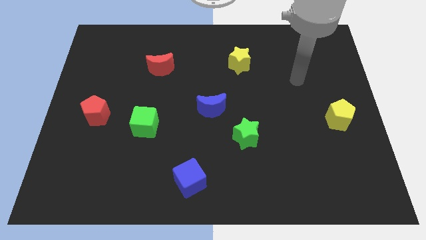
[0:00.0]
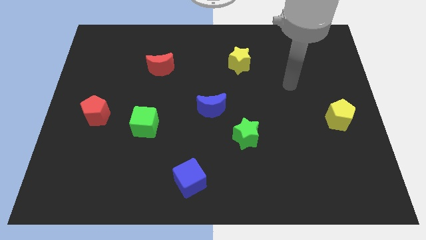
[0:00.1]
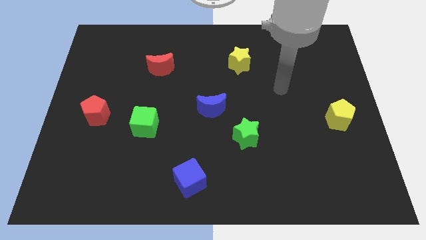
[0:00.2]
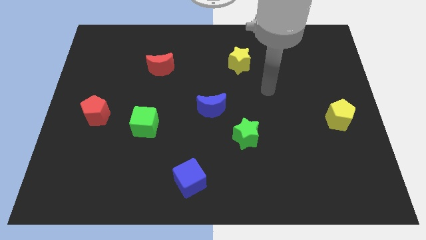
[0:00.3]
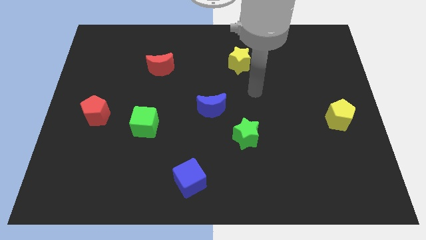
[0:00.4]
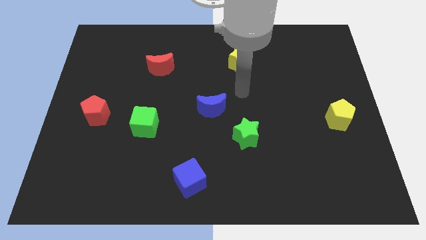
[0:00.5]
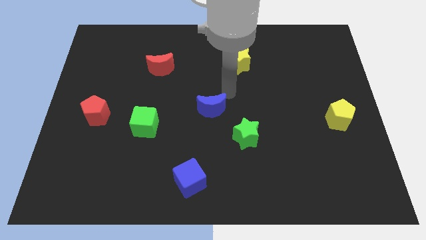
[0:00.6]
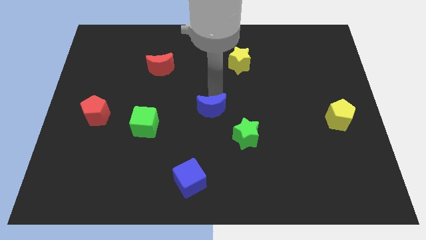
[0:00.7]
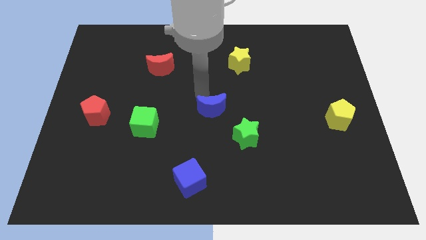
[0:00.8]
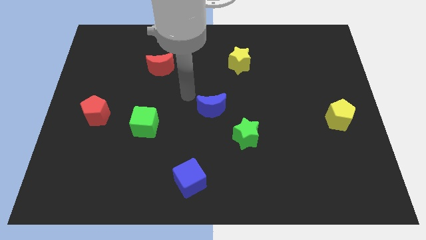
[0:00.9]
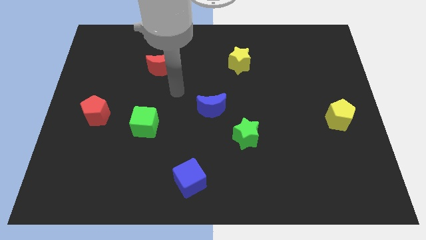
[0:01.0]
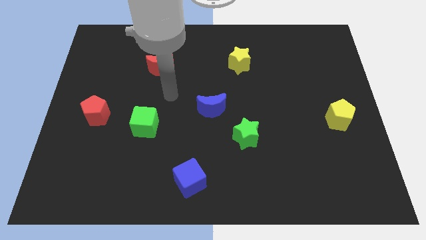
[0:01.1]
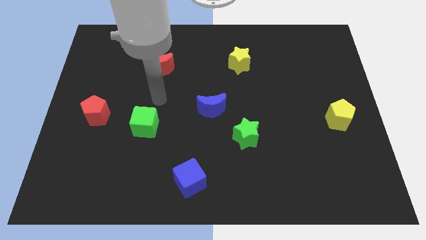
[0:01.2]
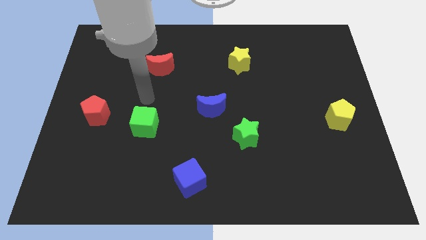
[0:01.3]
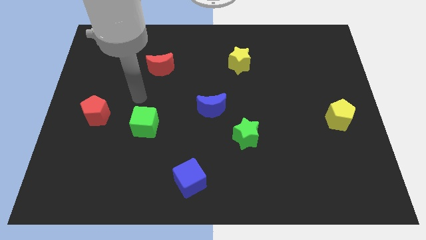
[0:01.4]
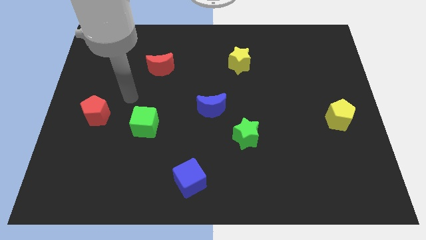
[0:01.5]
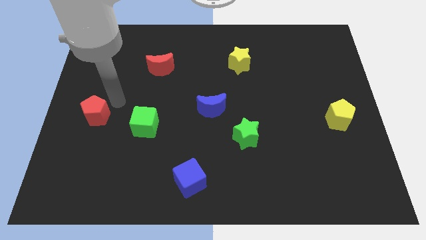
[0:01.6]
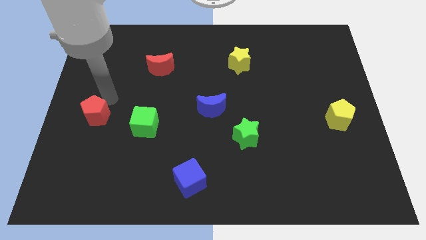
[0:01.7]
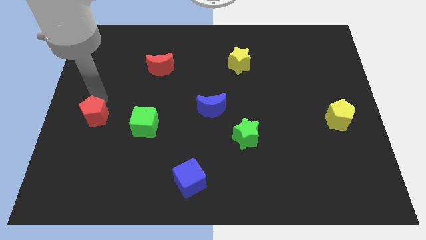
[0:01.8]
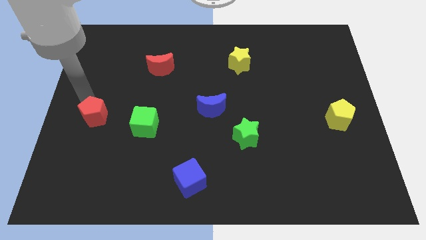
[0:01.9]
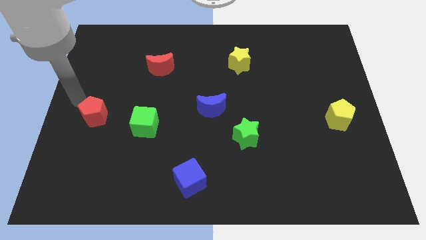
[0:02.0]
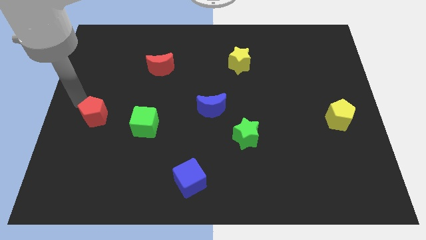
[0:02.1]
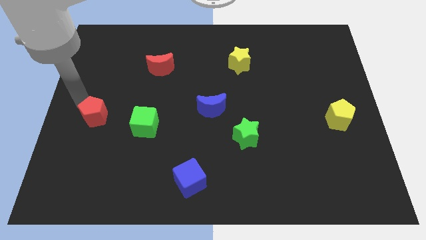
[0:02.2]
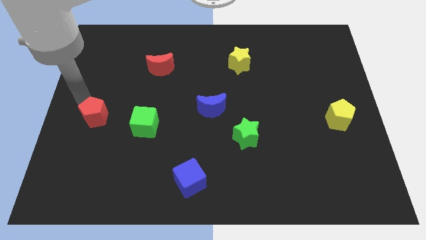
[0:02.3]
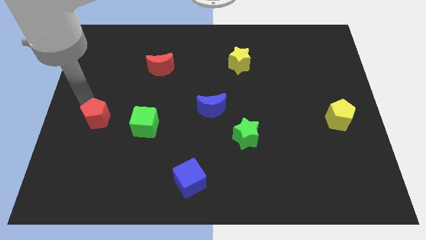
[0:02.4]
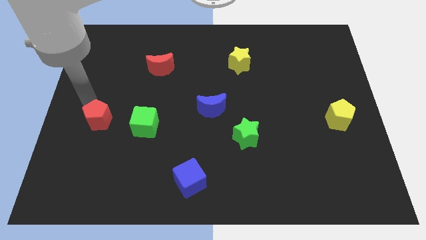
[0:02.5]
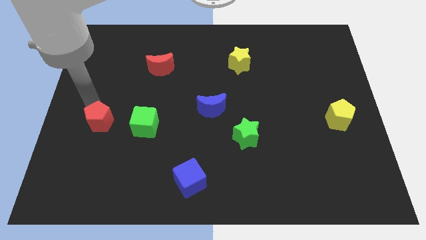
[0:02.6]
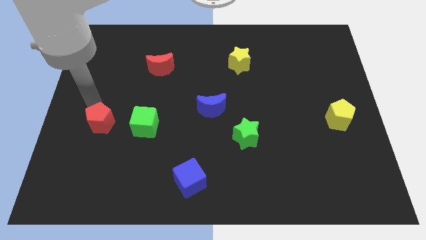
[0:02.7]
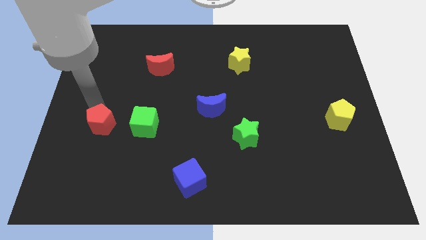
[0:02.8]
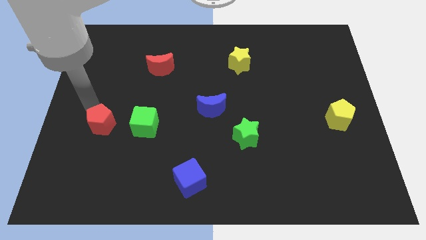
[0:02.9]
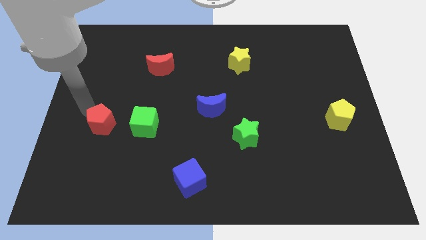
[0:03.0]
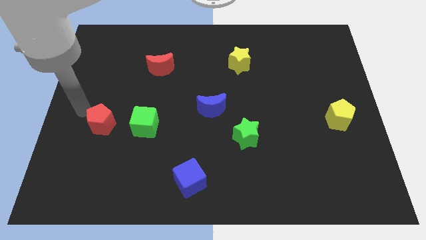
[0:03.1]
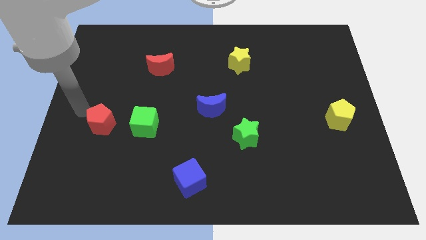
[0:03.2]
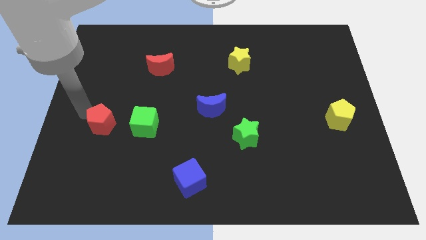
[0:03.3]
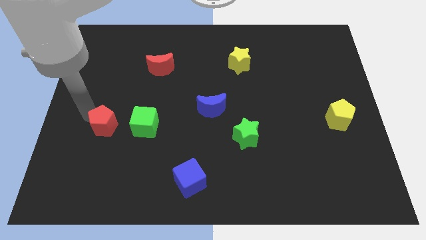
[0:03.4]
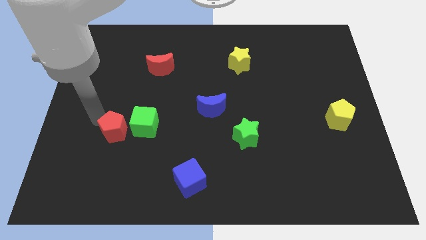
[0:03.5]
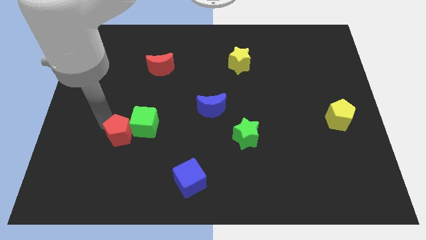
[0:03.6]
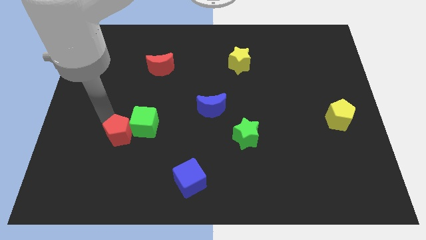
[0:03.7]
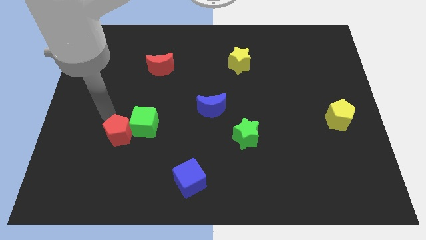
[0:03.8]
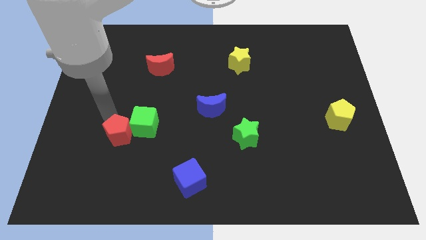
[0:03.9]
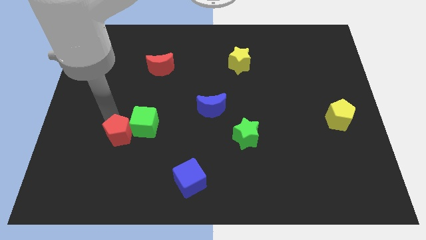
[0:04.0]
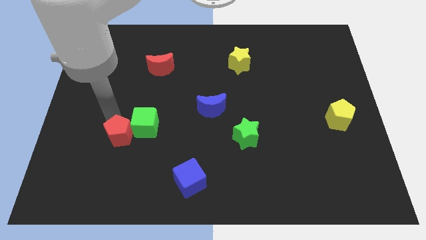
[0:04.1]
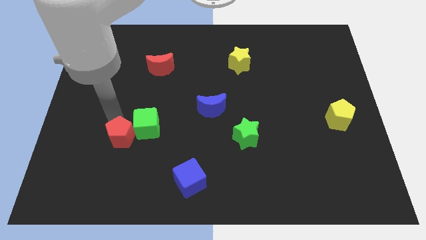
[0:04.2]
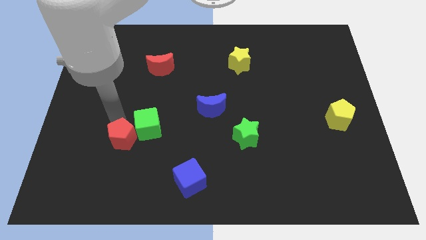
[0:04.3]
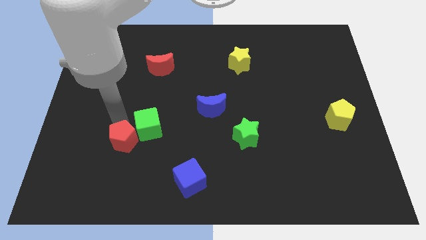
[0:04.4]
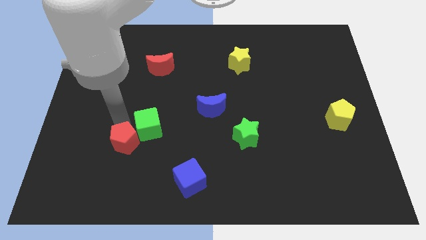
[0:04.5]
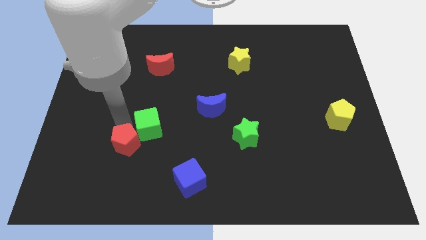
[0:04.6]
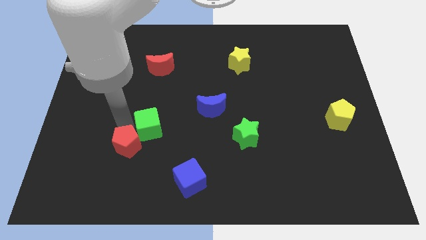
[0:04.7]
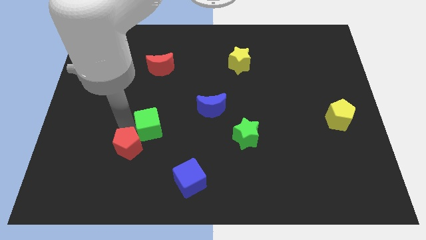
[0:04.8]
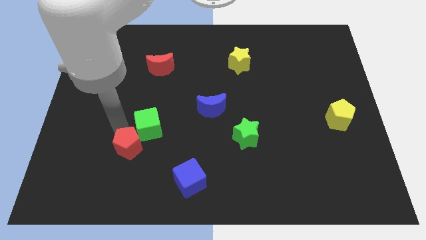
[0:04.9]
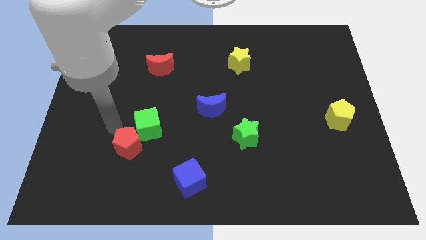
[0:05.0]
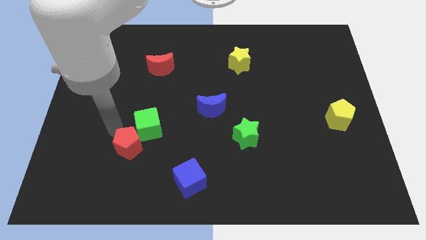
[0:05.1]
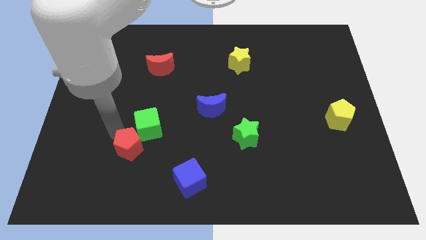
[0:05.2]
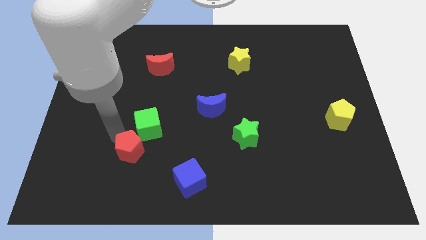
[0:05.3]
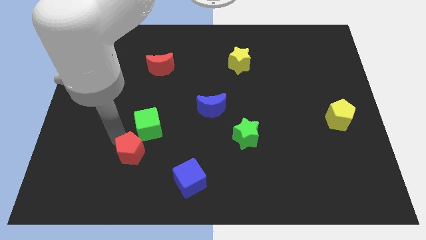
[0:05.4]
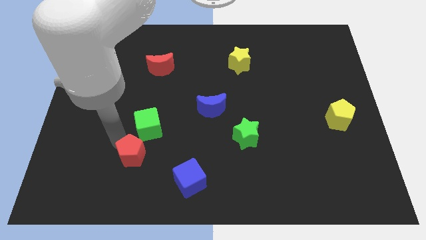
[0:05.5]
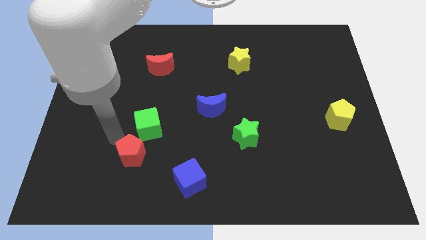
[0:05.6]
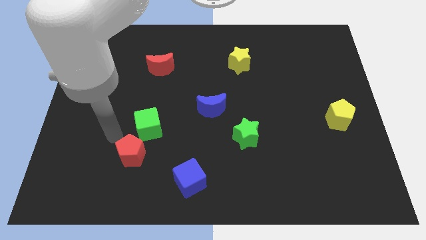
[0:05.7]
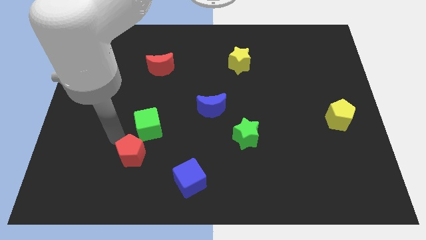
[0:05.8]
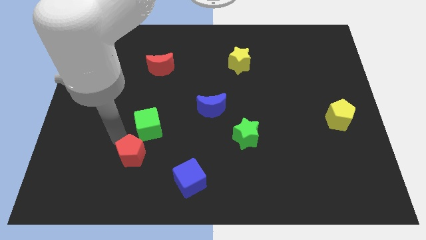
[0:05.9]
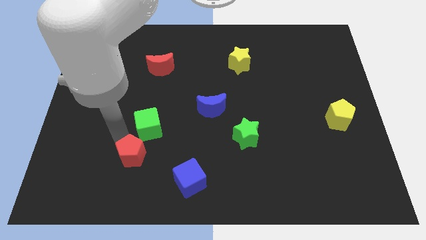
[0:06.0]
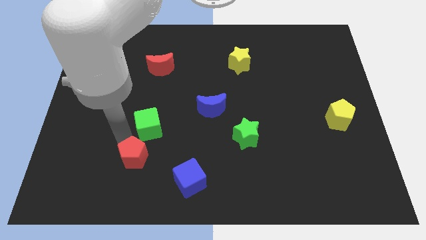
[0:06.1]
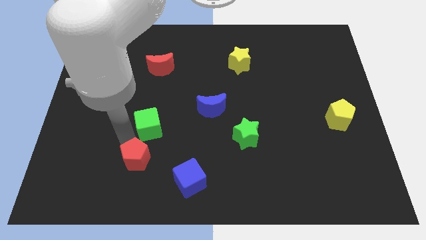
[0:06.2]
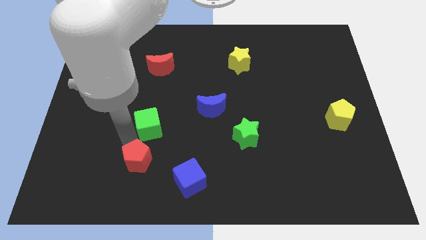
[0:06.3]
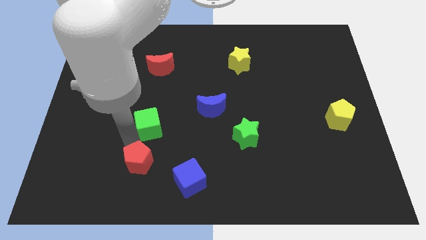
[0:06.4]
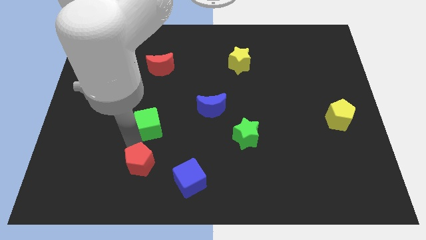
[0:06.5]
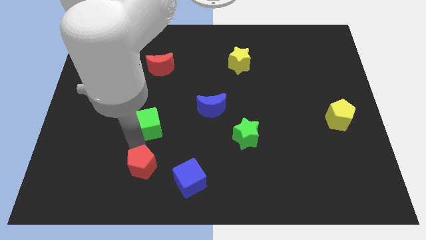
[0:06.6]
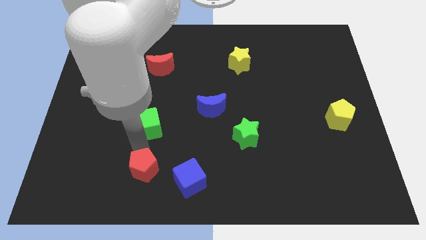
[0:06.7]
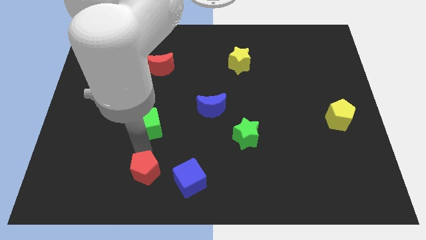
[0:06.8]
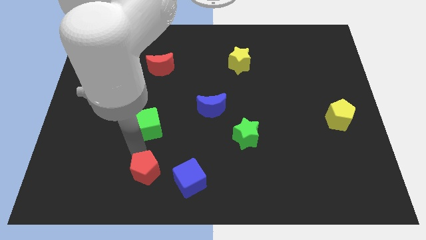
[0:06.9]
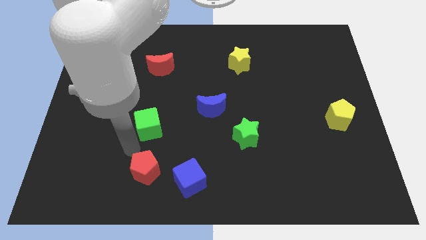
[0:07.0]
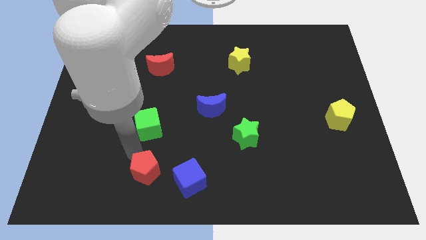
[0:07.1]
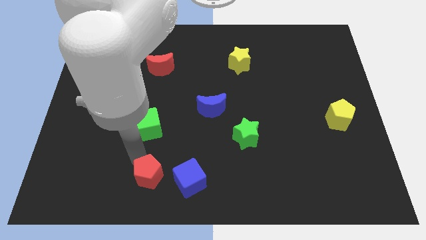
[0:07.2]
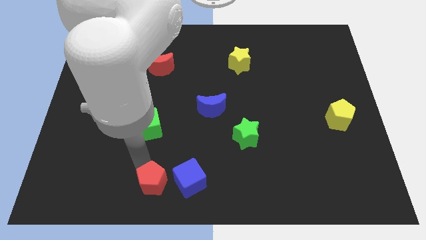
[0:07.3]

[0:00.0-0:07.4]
slide the red pentagon to the bottom
